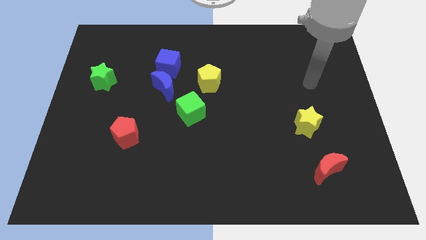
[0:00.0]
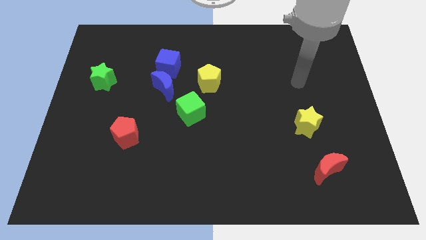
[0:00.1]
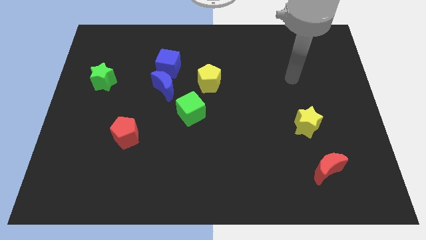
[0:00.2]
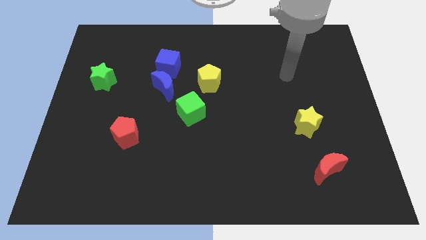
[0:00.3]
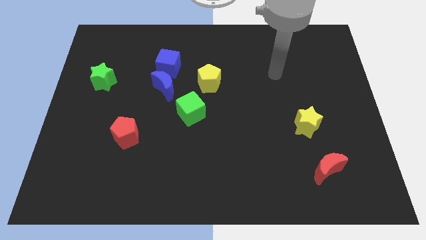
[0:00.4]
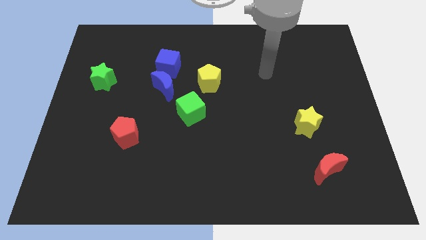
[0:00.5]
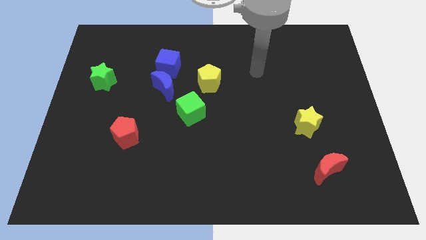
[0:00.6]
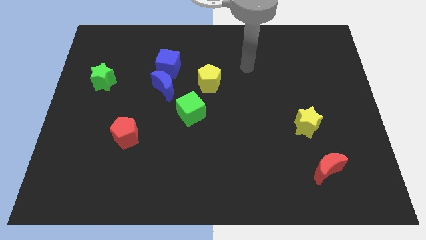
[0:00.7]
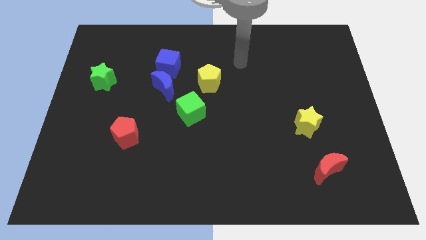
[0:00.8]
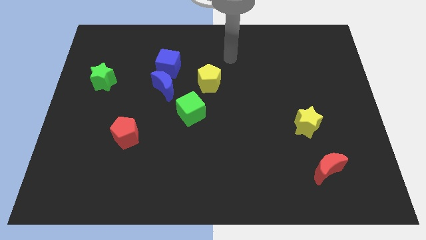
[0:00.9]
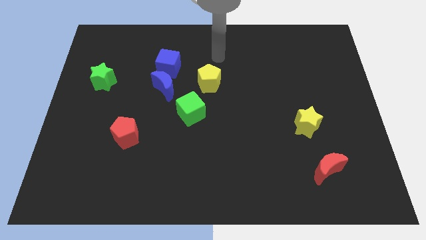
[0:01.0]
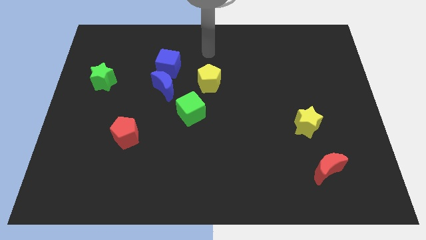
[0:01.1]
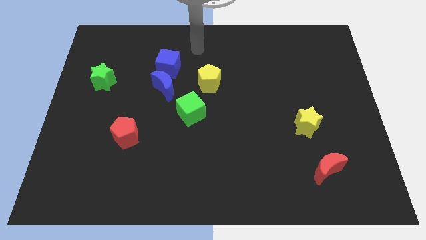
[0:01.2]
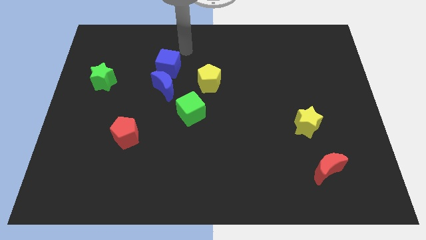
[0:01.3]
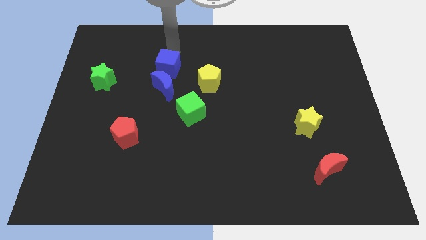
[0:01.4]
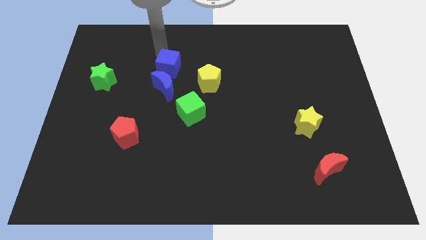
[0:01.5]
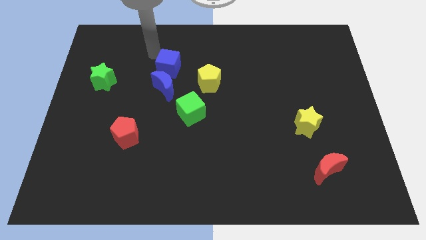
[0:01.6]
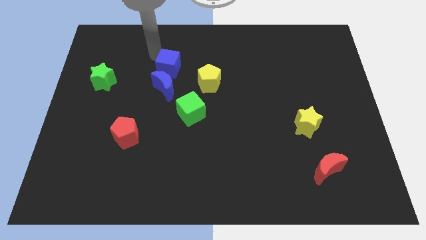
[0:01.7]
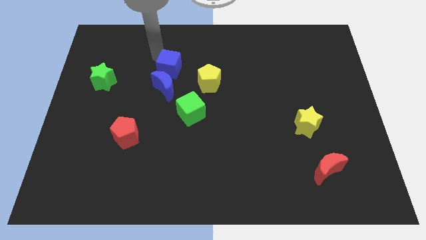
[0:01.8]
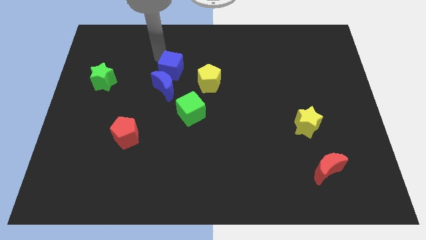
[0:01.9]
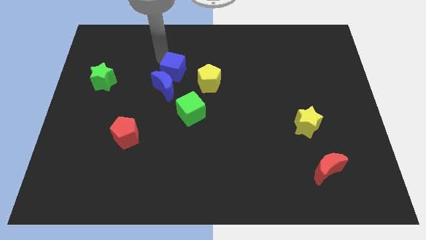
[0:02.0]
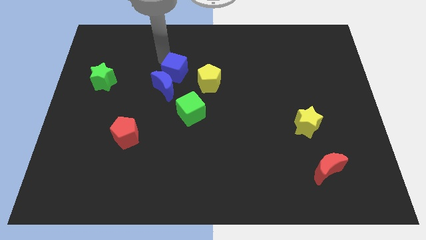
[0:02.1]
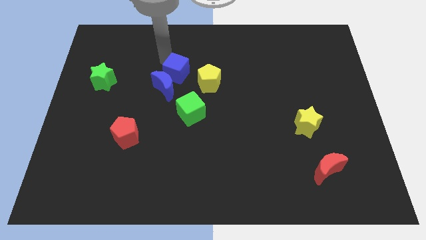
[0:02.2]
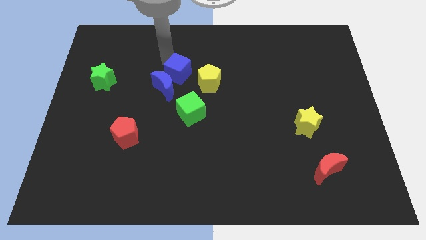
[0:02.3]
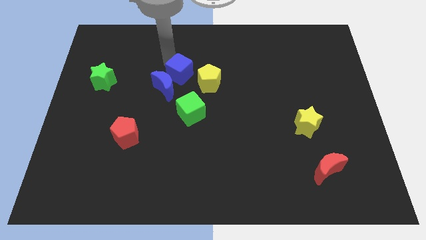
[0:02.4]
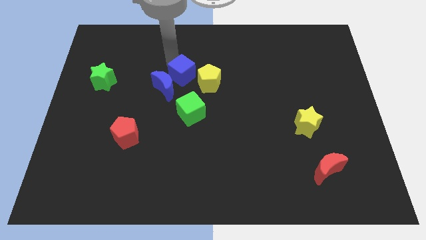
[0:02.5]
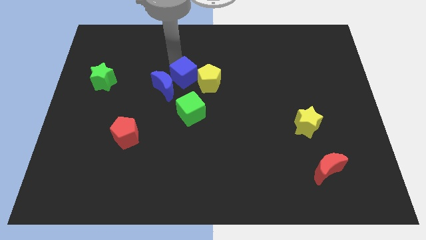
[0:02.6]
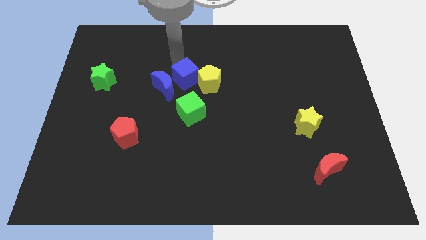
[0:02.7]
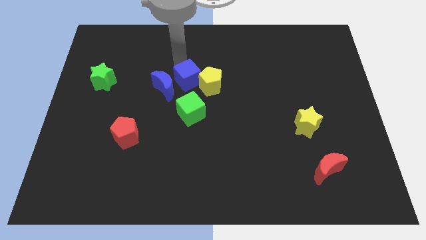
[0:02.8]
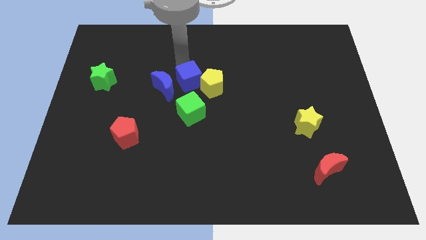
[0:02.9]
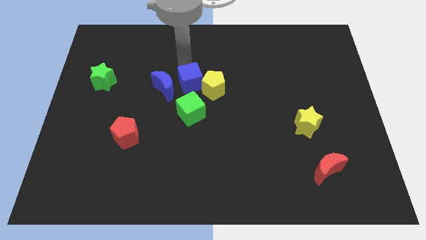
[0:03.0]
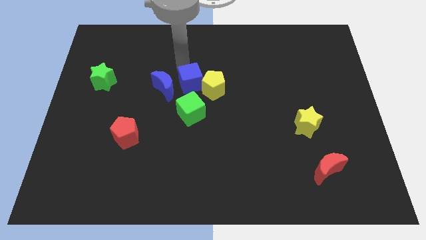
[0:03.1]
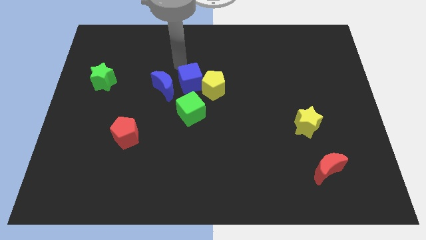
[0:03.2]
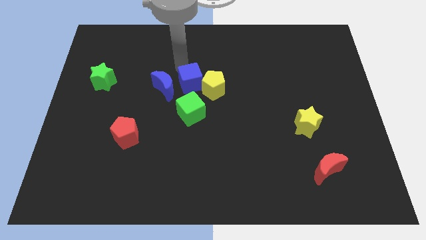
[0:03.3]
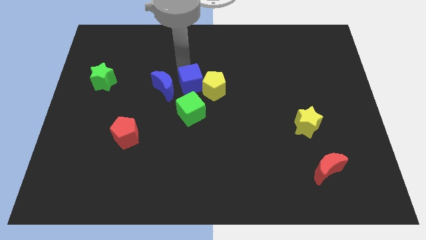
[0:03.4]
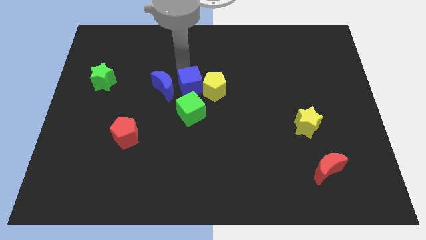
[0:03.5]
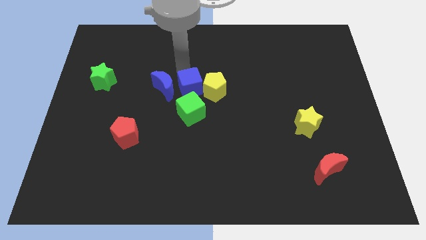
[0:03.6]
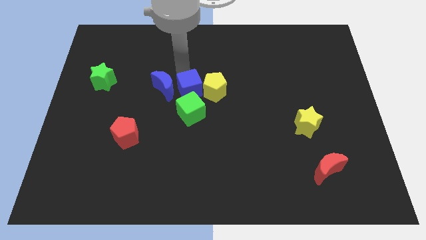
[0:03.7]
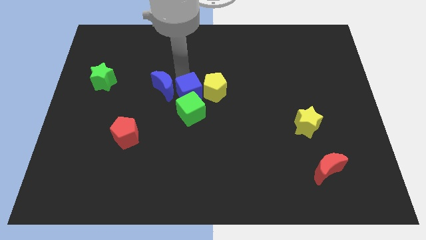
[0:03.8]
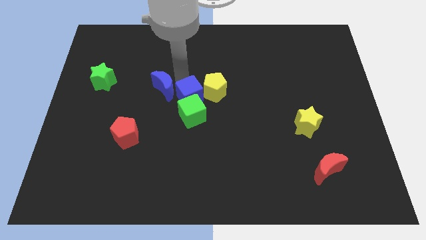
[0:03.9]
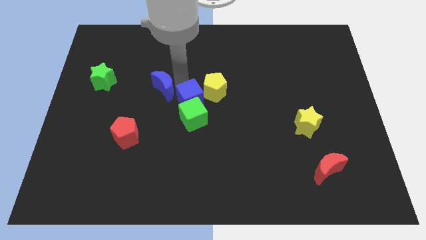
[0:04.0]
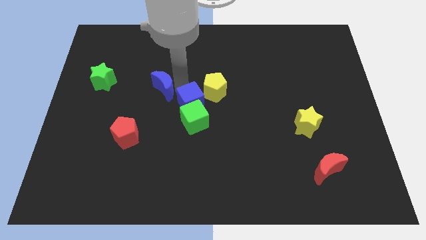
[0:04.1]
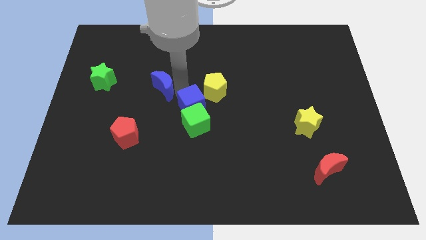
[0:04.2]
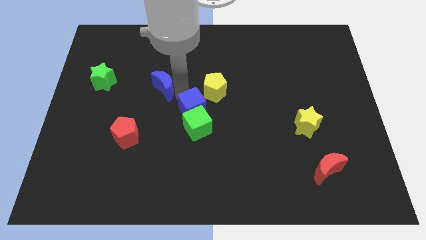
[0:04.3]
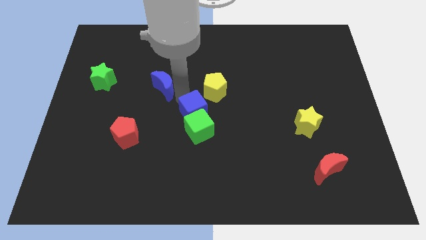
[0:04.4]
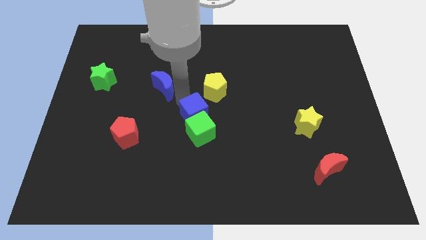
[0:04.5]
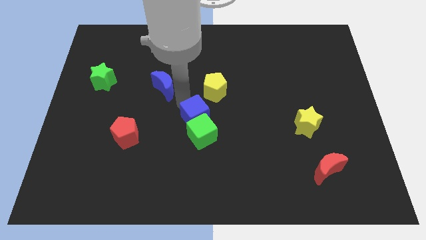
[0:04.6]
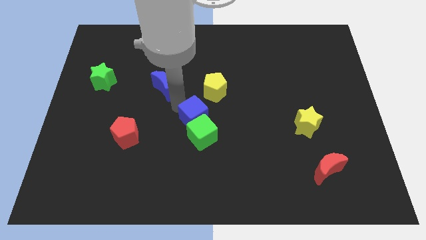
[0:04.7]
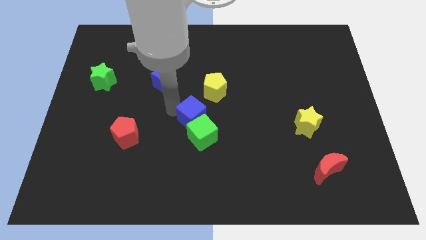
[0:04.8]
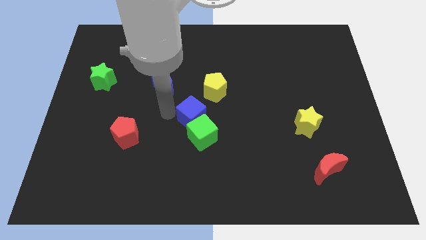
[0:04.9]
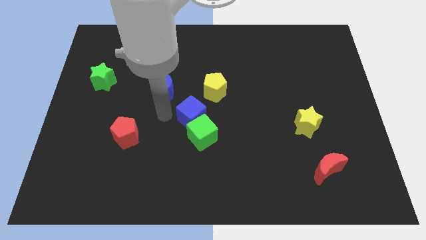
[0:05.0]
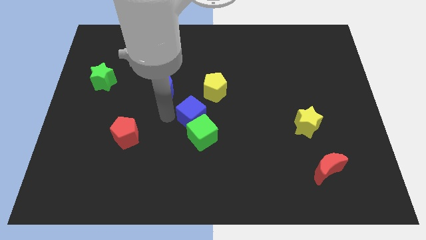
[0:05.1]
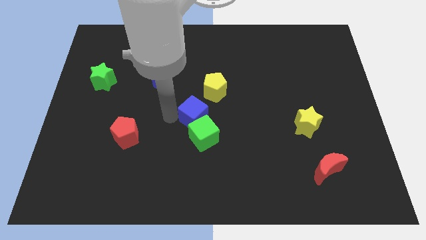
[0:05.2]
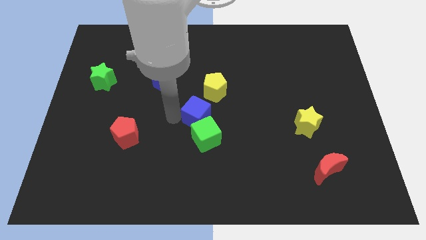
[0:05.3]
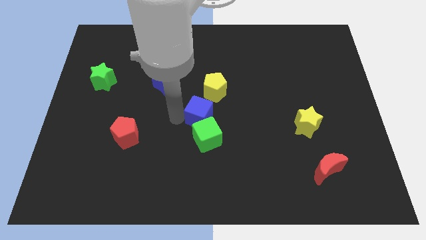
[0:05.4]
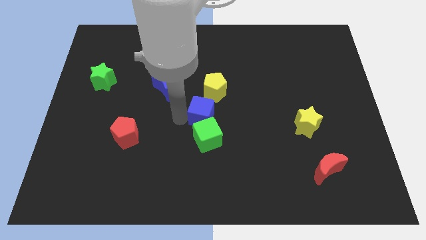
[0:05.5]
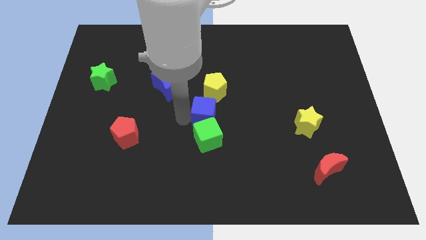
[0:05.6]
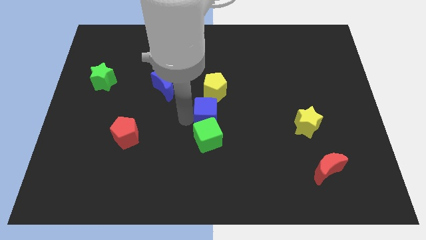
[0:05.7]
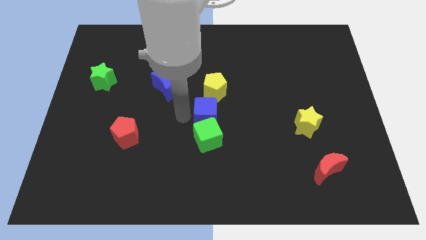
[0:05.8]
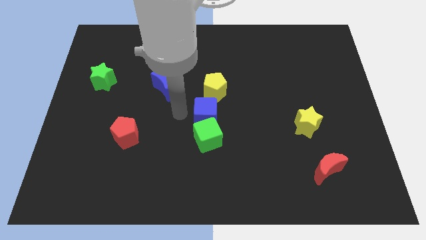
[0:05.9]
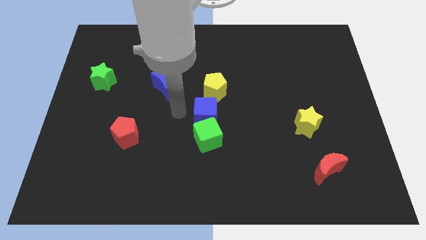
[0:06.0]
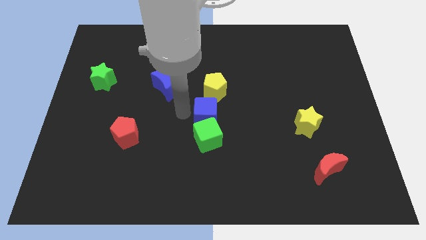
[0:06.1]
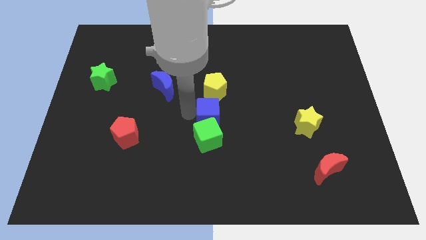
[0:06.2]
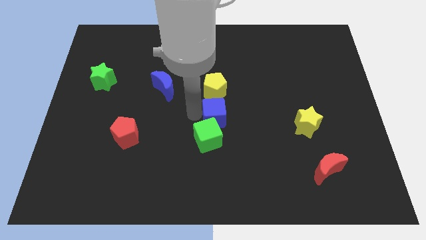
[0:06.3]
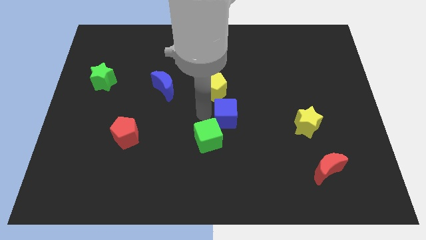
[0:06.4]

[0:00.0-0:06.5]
push the blue cube downwards and right

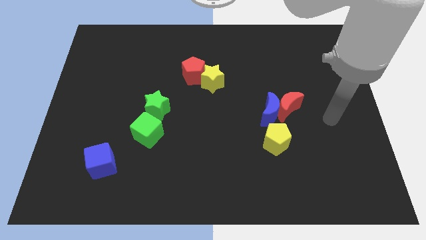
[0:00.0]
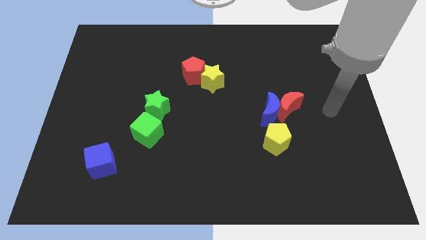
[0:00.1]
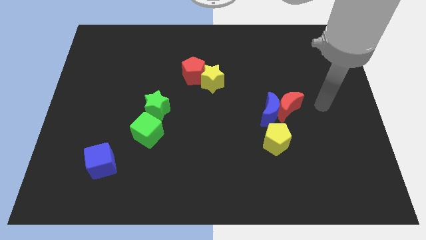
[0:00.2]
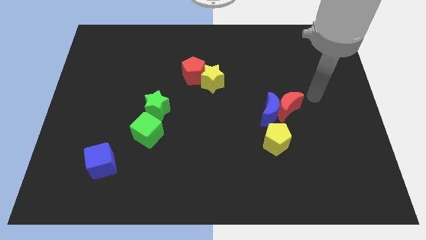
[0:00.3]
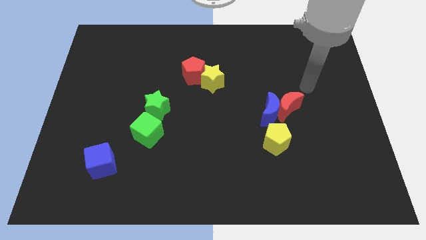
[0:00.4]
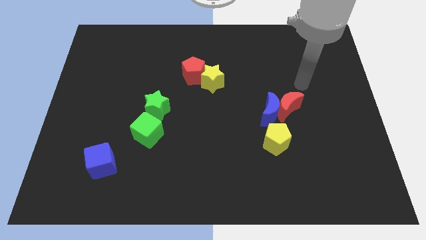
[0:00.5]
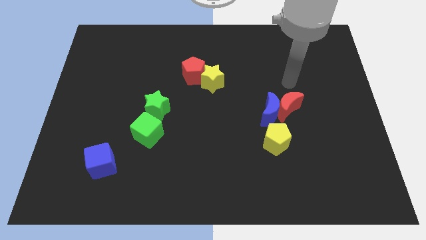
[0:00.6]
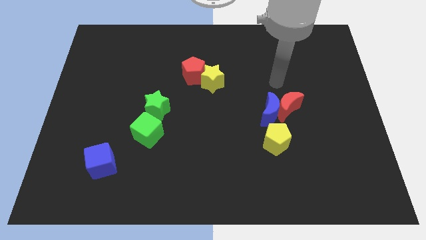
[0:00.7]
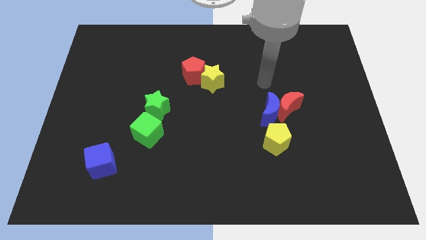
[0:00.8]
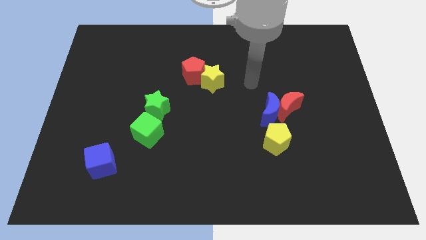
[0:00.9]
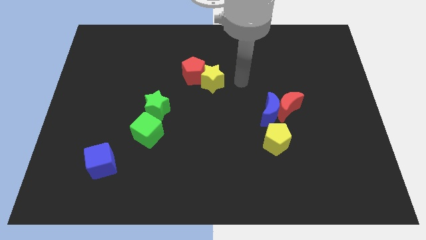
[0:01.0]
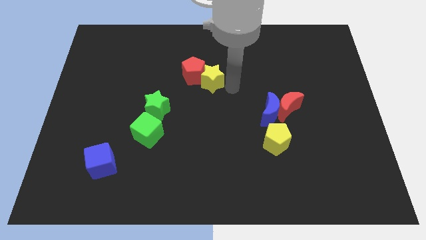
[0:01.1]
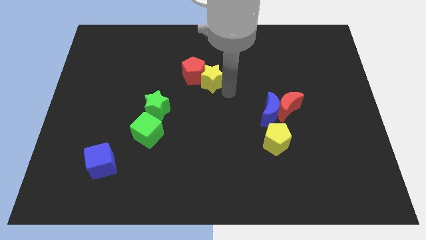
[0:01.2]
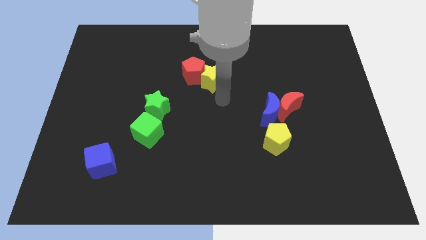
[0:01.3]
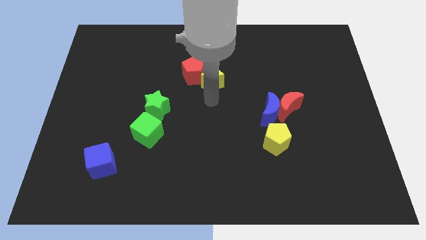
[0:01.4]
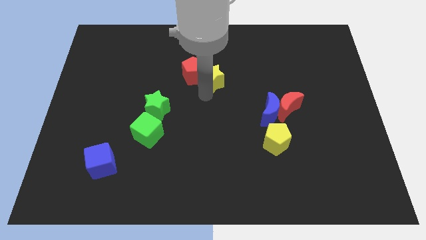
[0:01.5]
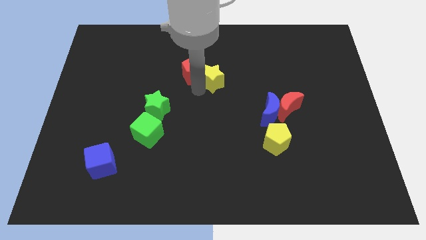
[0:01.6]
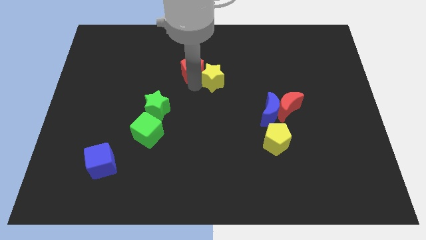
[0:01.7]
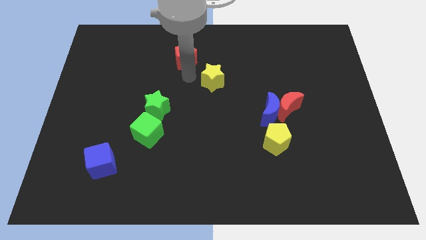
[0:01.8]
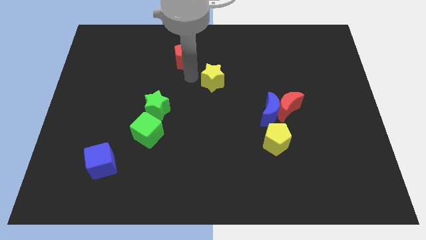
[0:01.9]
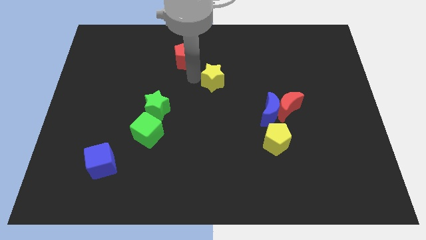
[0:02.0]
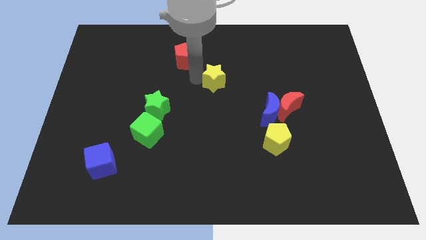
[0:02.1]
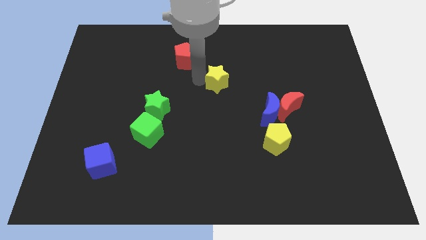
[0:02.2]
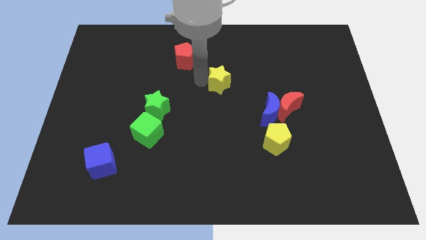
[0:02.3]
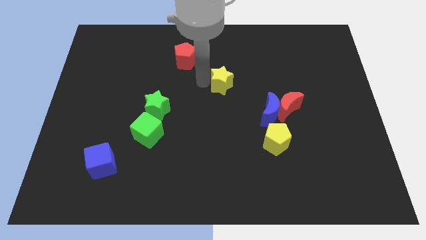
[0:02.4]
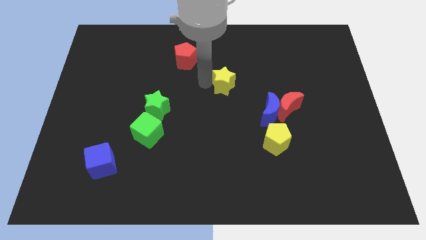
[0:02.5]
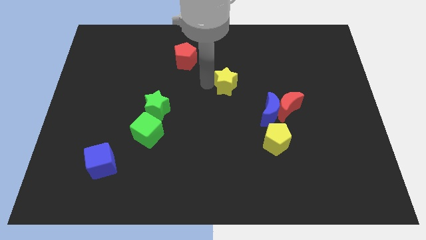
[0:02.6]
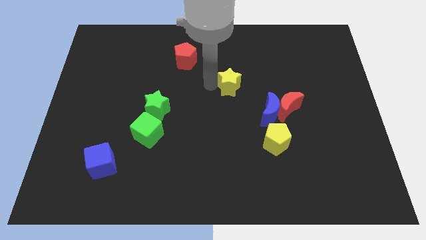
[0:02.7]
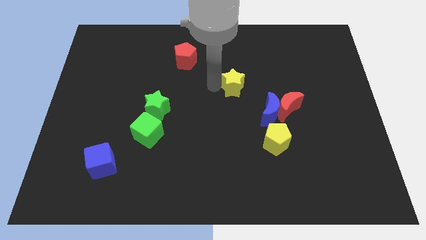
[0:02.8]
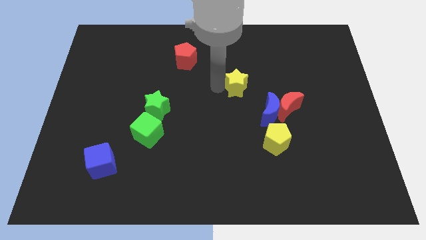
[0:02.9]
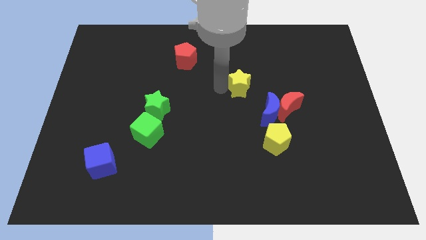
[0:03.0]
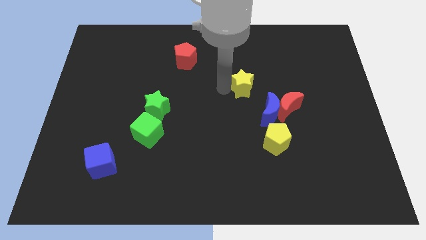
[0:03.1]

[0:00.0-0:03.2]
slightly move the yellow star right
